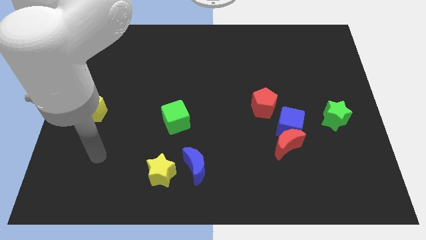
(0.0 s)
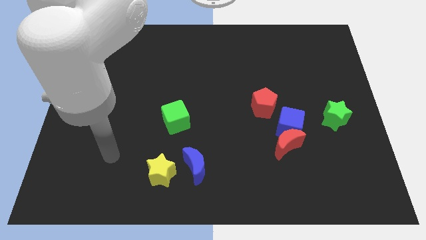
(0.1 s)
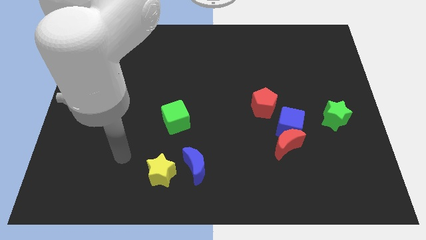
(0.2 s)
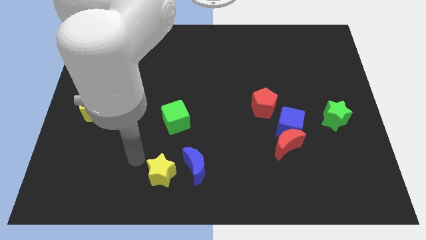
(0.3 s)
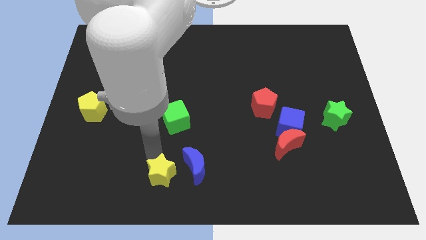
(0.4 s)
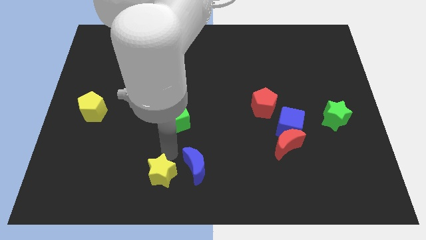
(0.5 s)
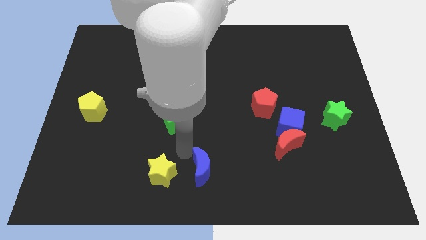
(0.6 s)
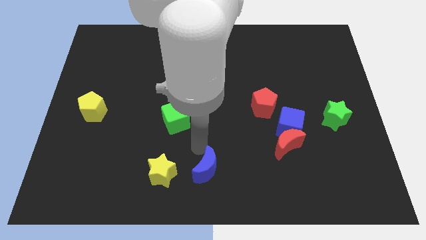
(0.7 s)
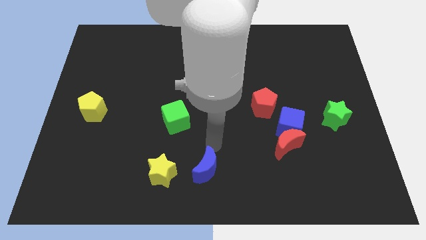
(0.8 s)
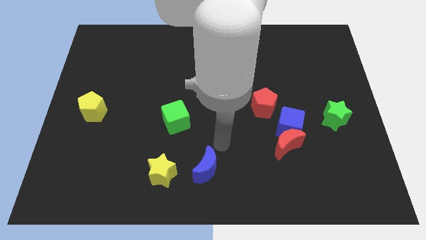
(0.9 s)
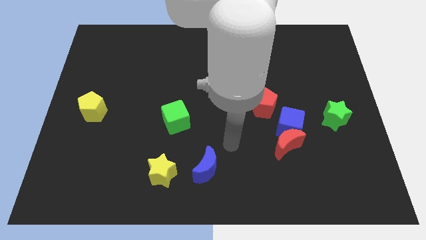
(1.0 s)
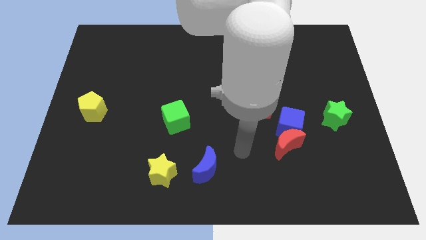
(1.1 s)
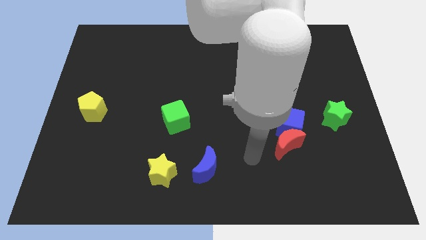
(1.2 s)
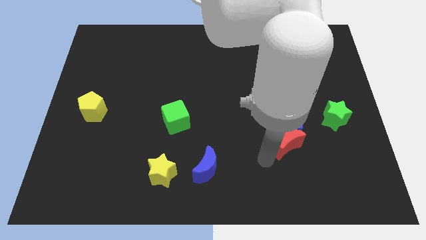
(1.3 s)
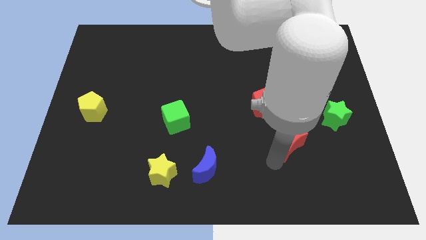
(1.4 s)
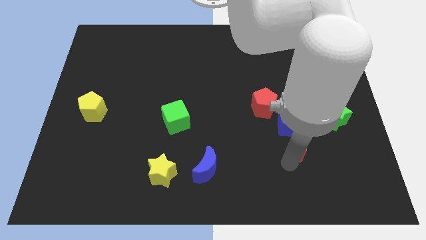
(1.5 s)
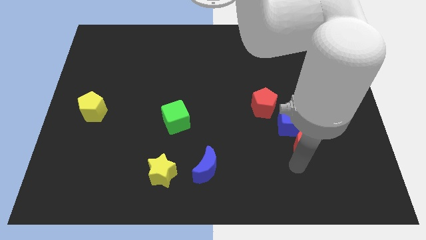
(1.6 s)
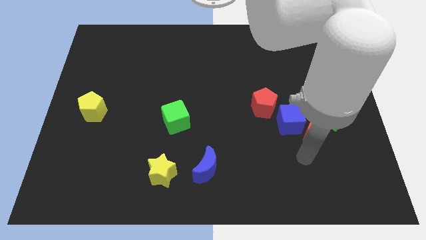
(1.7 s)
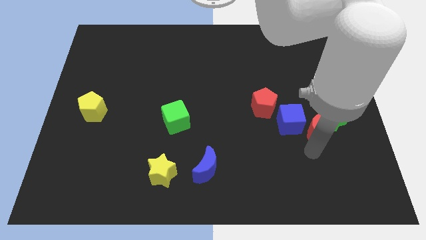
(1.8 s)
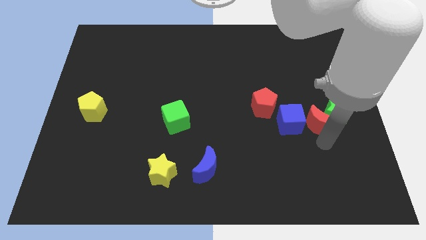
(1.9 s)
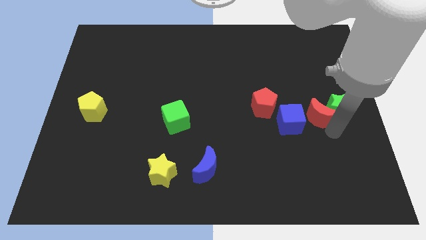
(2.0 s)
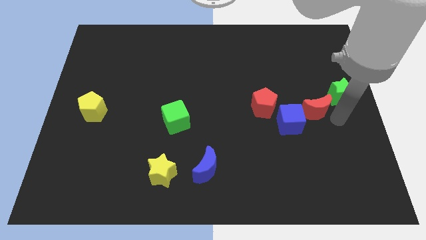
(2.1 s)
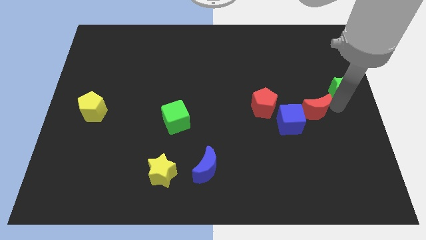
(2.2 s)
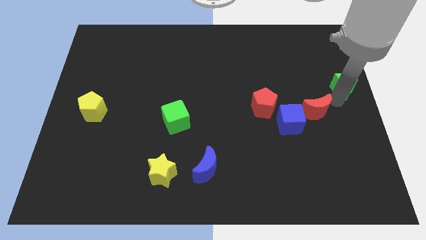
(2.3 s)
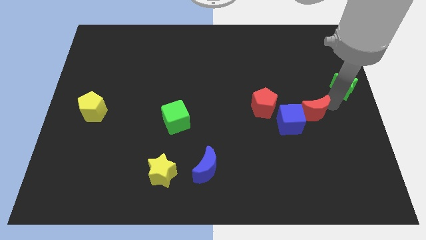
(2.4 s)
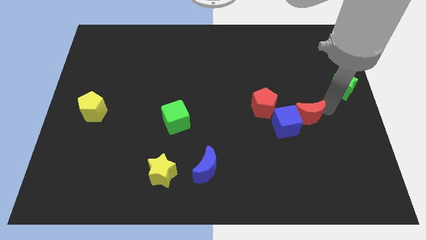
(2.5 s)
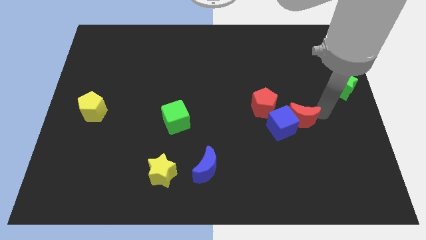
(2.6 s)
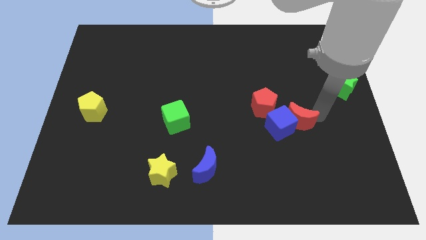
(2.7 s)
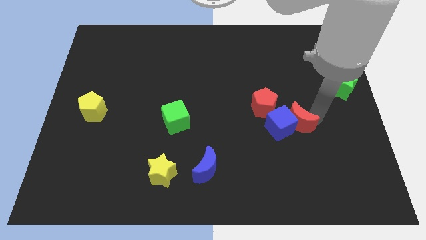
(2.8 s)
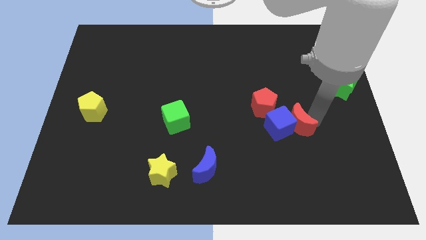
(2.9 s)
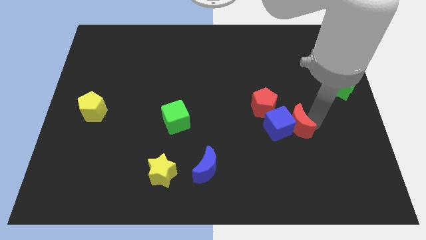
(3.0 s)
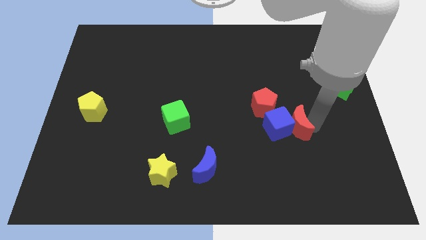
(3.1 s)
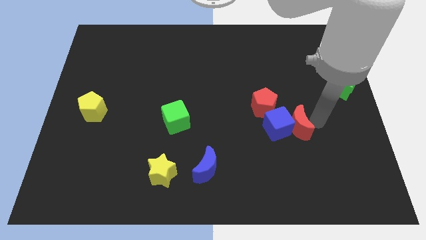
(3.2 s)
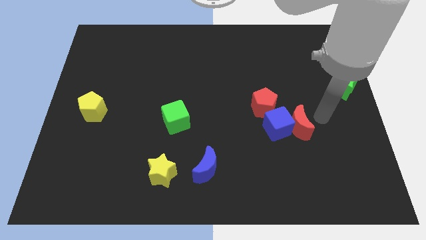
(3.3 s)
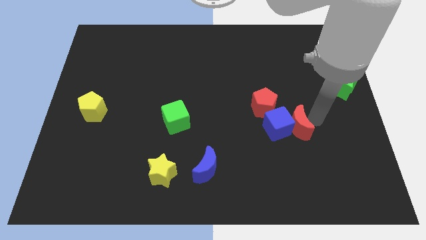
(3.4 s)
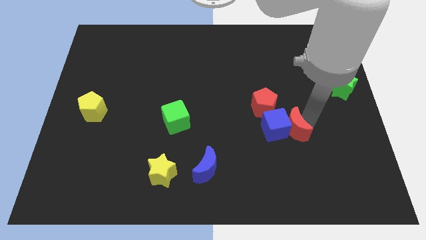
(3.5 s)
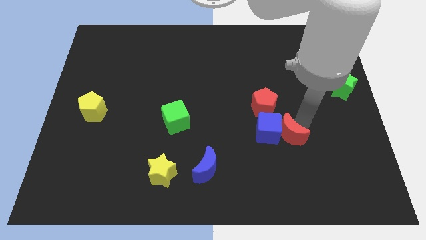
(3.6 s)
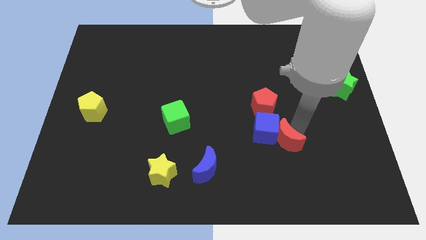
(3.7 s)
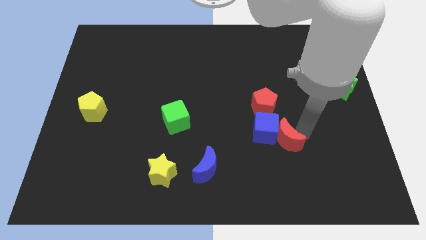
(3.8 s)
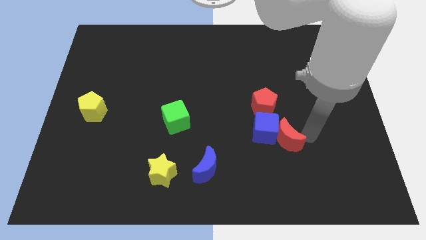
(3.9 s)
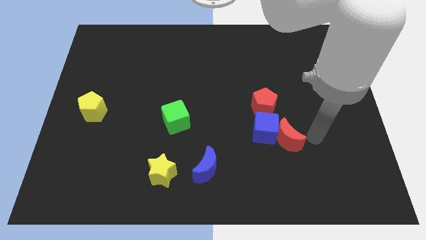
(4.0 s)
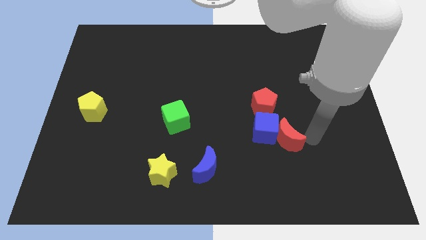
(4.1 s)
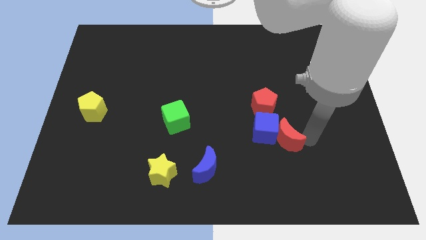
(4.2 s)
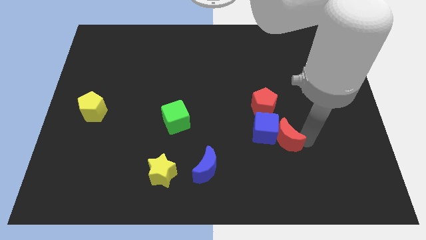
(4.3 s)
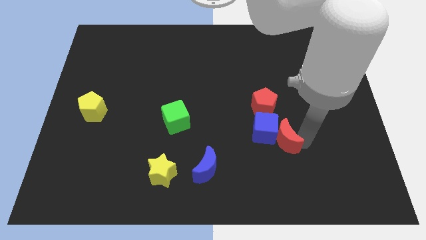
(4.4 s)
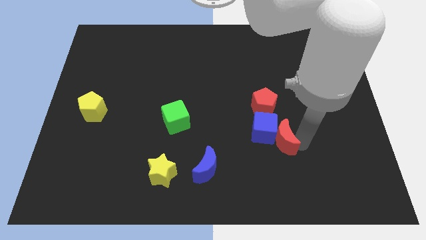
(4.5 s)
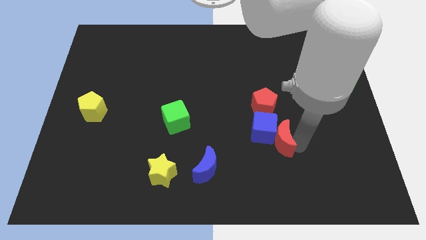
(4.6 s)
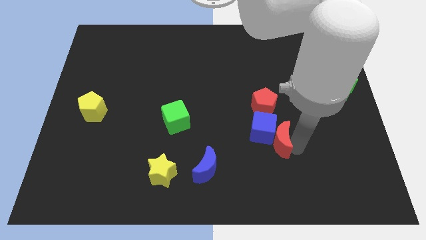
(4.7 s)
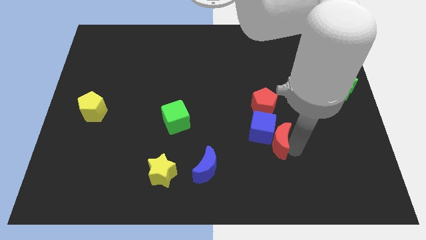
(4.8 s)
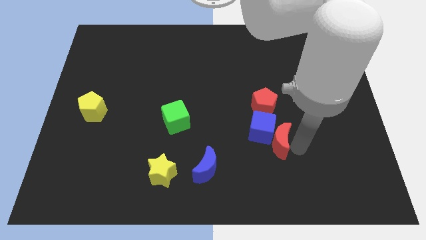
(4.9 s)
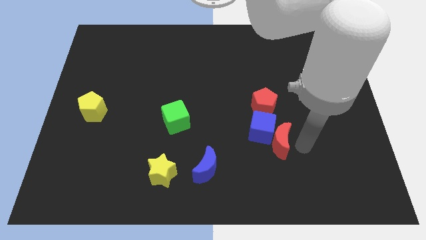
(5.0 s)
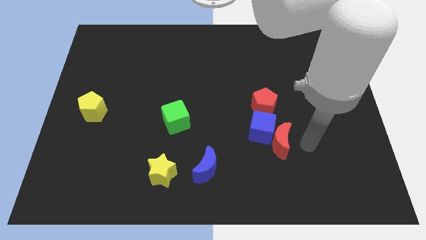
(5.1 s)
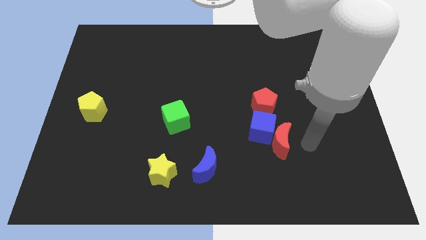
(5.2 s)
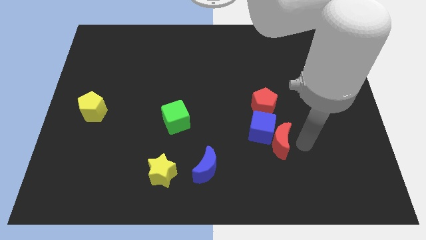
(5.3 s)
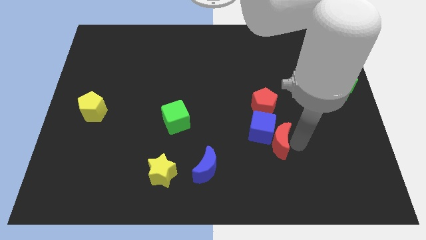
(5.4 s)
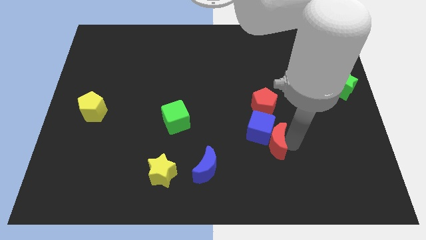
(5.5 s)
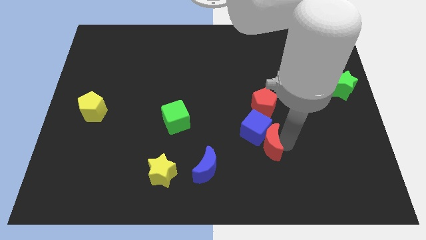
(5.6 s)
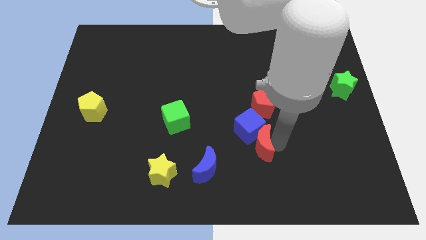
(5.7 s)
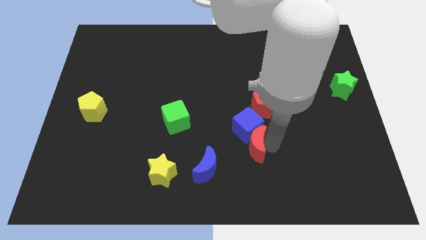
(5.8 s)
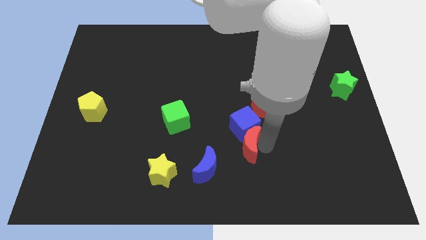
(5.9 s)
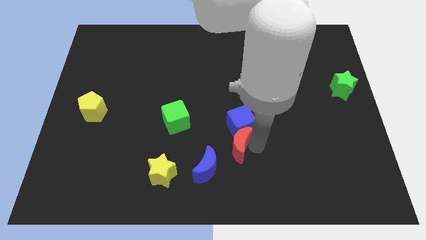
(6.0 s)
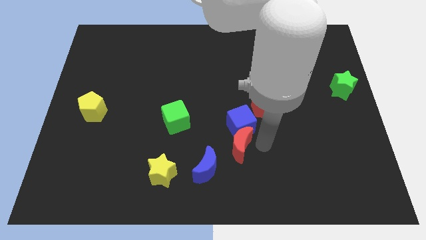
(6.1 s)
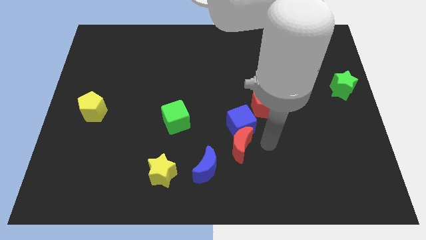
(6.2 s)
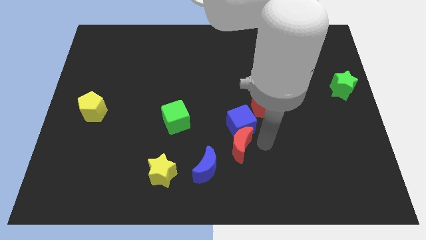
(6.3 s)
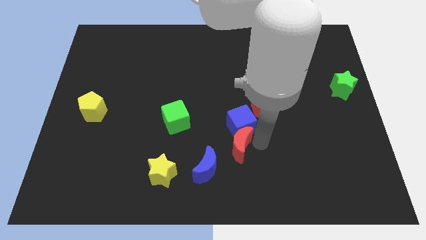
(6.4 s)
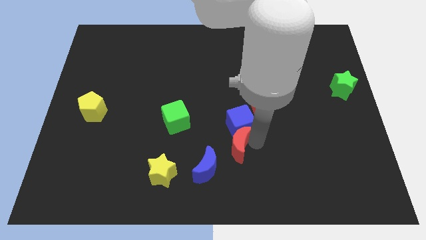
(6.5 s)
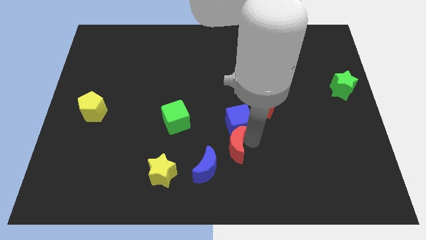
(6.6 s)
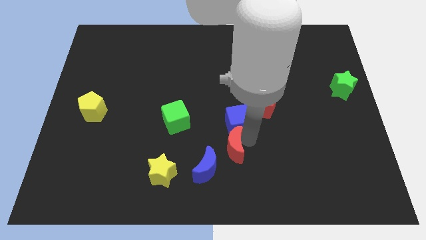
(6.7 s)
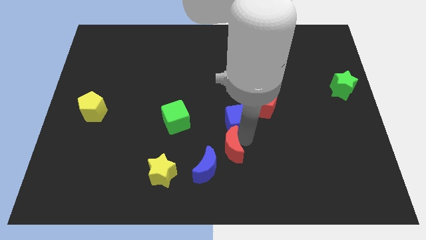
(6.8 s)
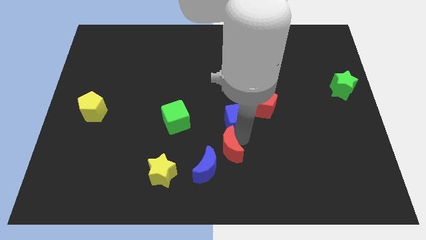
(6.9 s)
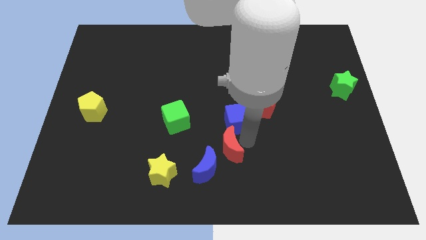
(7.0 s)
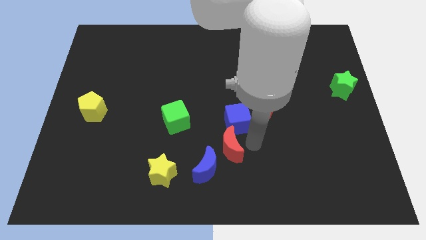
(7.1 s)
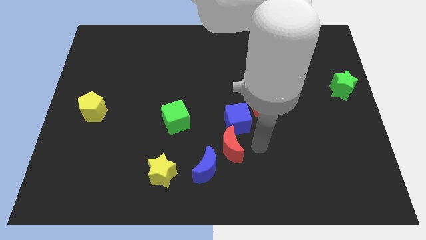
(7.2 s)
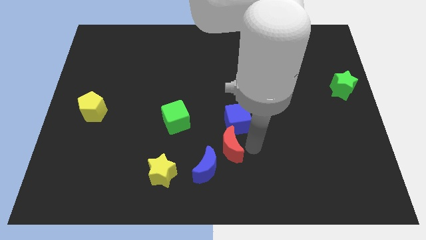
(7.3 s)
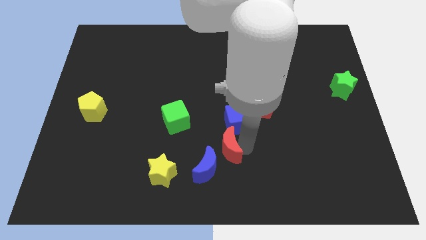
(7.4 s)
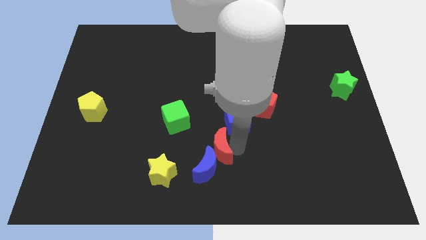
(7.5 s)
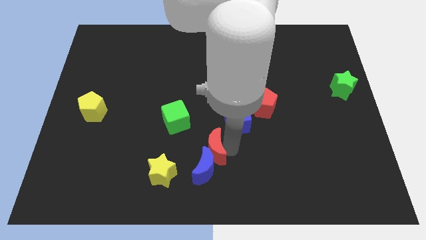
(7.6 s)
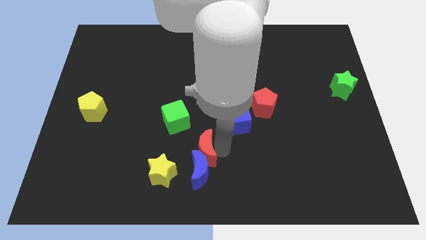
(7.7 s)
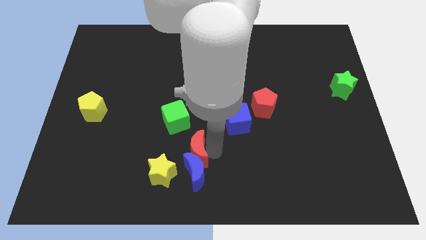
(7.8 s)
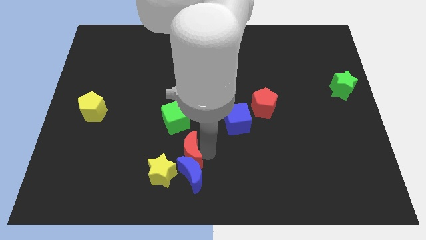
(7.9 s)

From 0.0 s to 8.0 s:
push the red moon left
